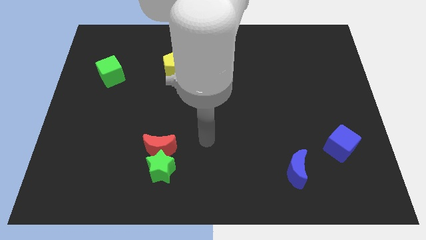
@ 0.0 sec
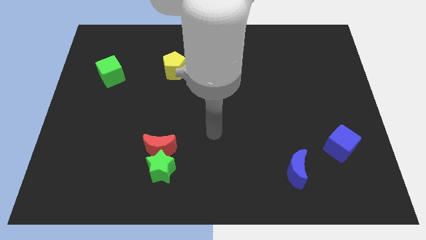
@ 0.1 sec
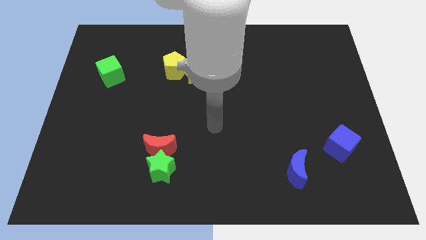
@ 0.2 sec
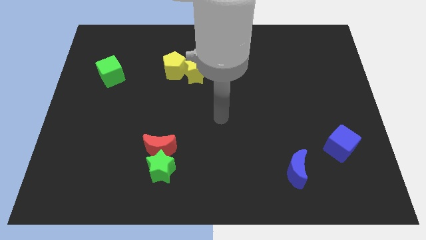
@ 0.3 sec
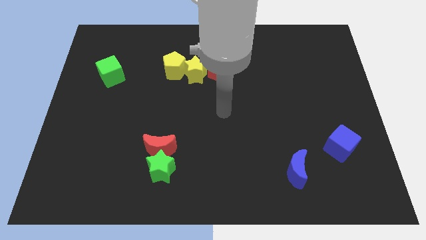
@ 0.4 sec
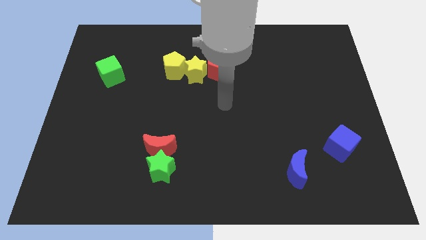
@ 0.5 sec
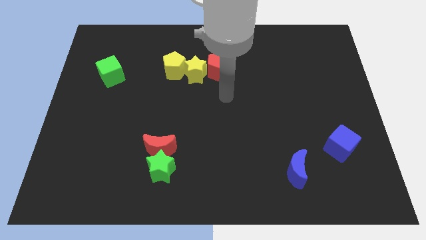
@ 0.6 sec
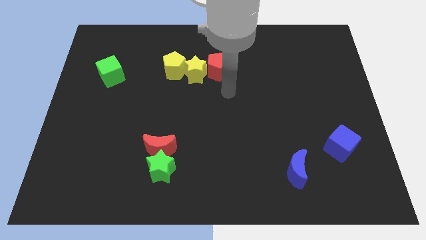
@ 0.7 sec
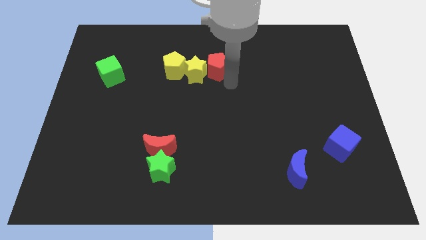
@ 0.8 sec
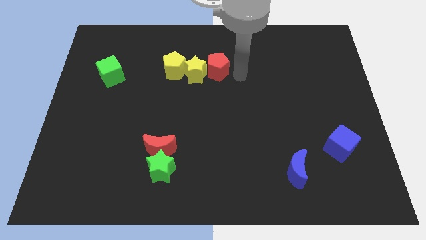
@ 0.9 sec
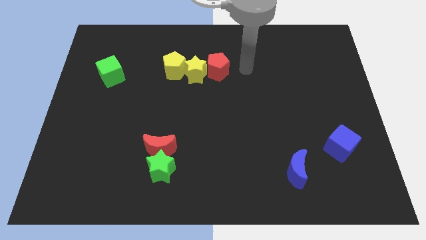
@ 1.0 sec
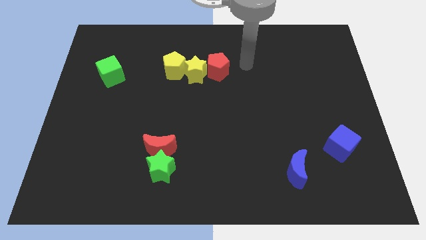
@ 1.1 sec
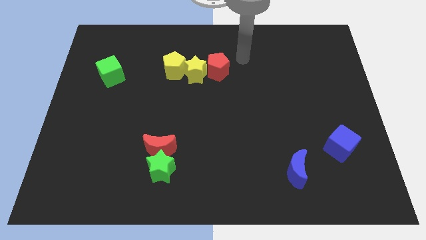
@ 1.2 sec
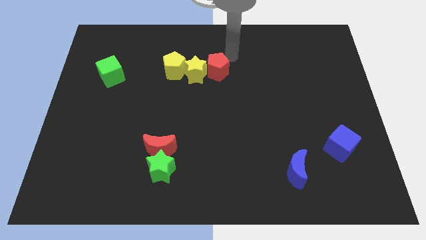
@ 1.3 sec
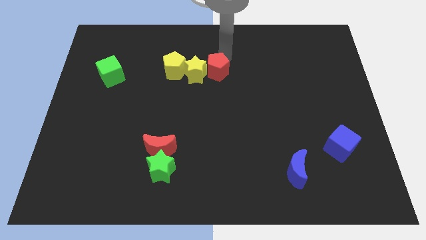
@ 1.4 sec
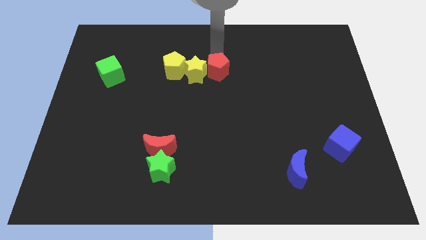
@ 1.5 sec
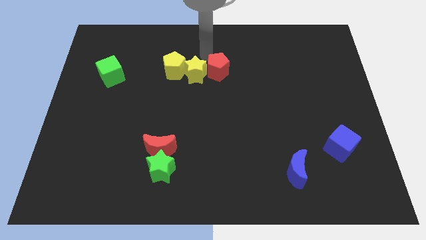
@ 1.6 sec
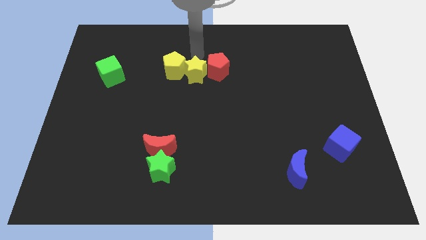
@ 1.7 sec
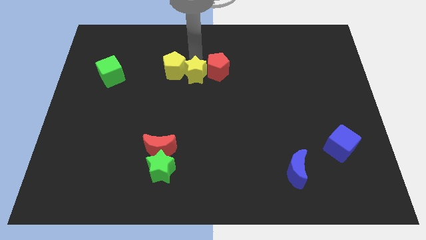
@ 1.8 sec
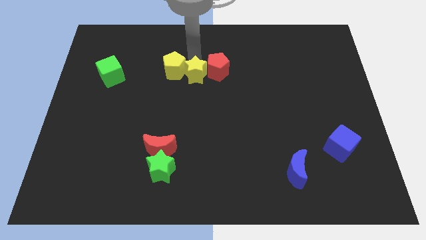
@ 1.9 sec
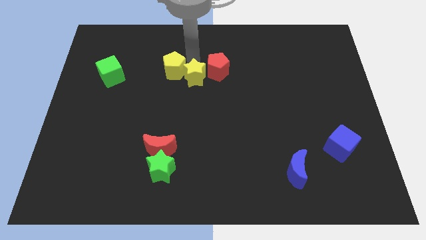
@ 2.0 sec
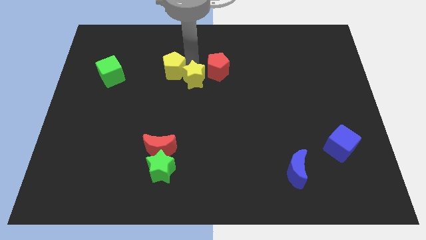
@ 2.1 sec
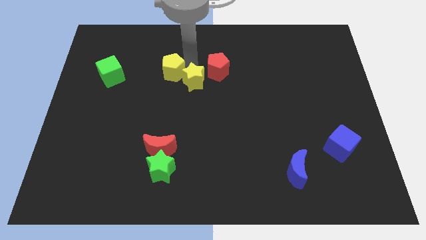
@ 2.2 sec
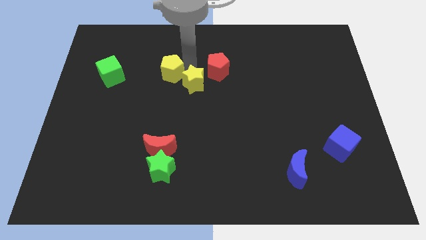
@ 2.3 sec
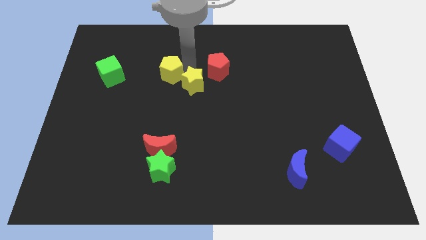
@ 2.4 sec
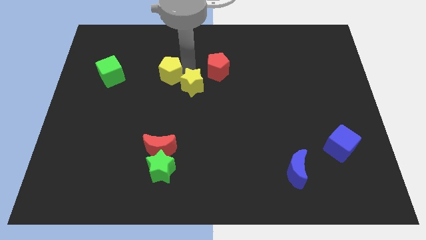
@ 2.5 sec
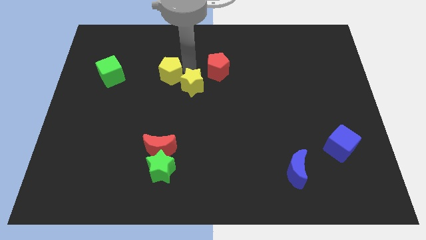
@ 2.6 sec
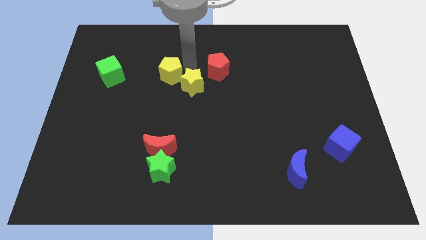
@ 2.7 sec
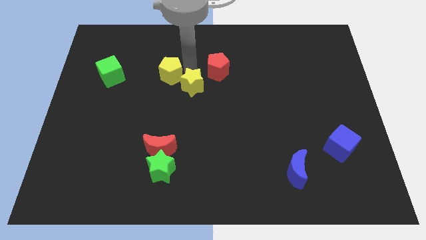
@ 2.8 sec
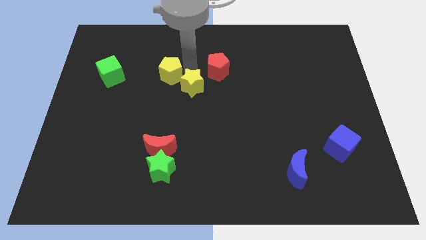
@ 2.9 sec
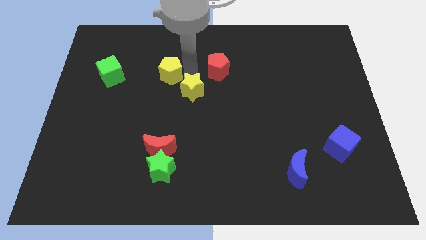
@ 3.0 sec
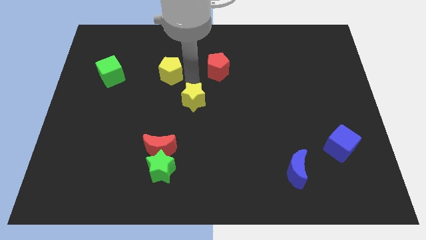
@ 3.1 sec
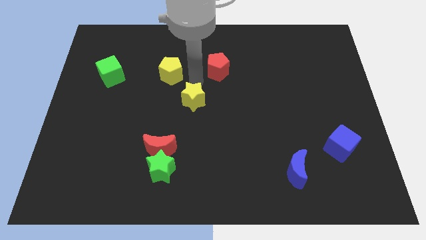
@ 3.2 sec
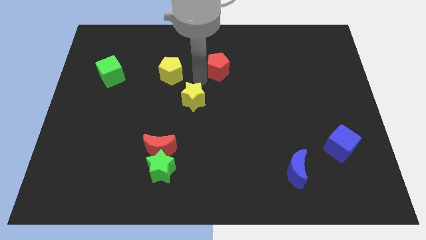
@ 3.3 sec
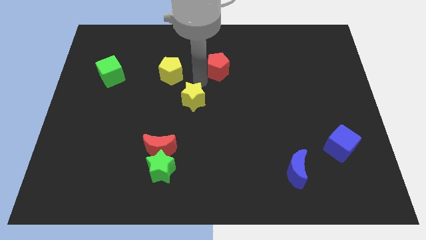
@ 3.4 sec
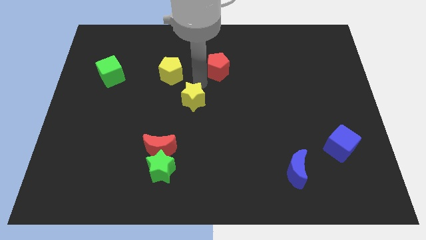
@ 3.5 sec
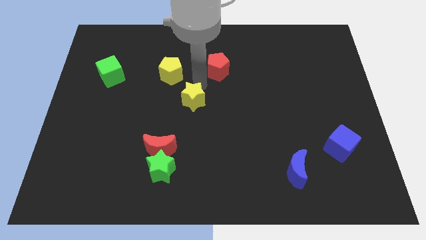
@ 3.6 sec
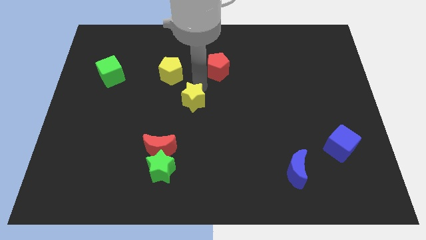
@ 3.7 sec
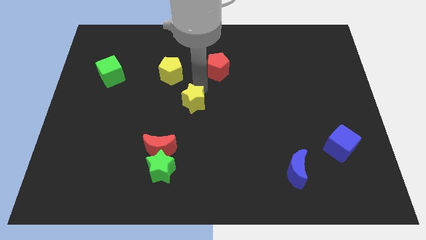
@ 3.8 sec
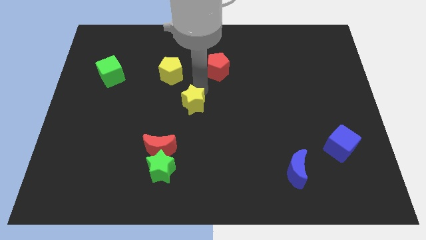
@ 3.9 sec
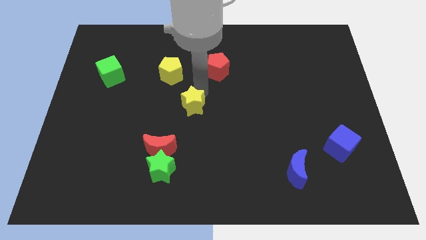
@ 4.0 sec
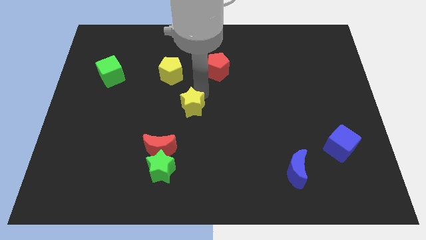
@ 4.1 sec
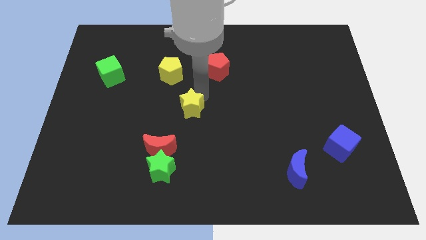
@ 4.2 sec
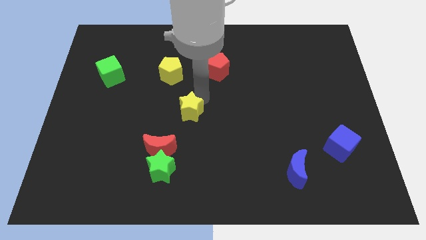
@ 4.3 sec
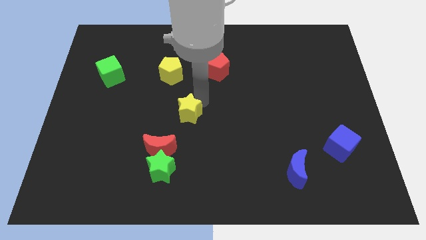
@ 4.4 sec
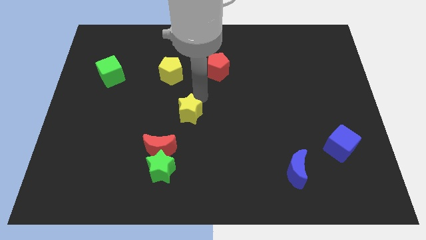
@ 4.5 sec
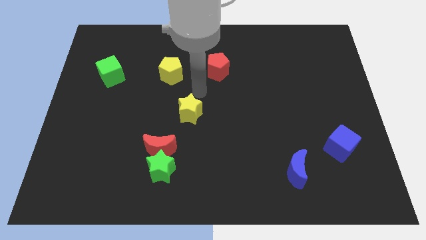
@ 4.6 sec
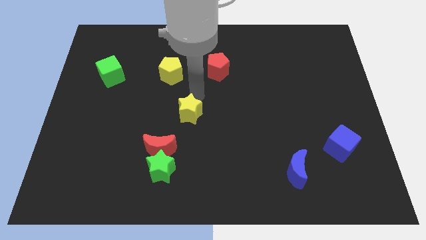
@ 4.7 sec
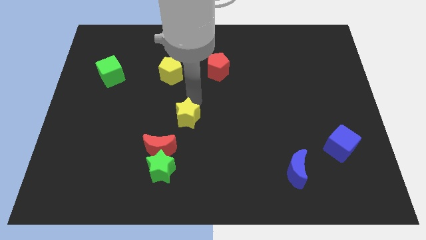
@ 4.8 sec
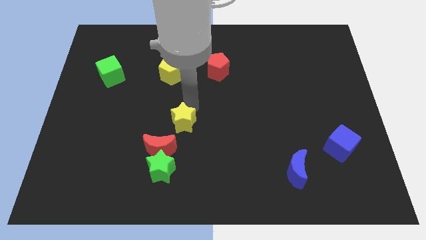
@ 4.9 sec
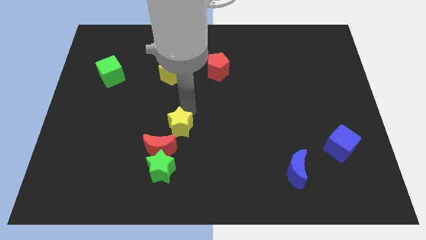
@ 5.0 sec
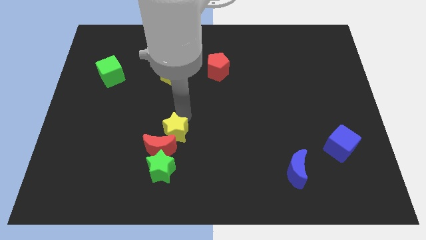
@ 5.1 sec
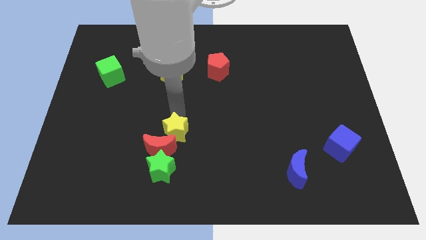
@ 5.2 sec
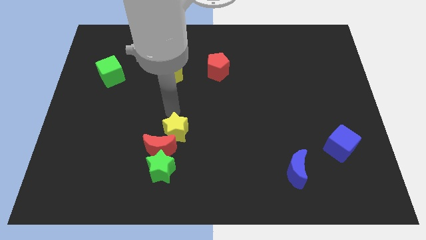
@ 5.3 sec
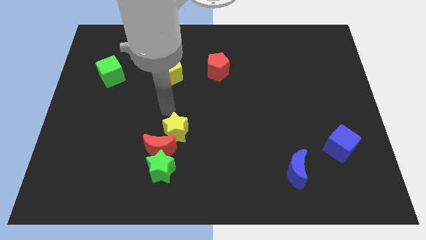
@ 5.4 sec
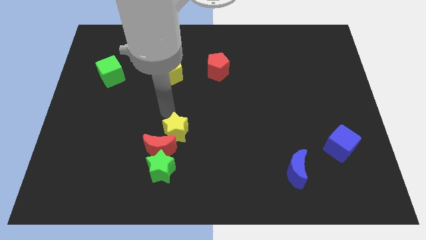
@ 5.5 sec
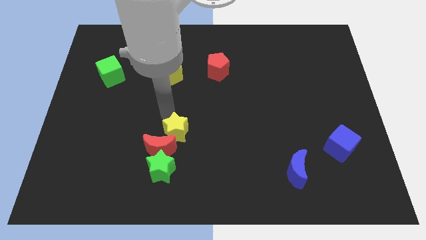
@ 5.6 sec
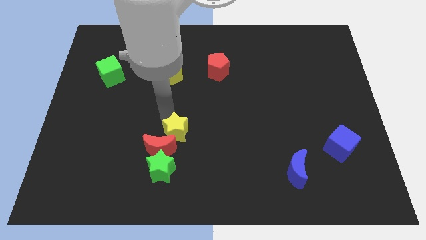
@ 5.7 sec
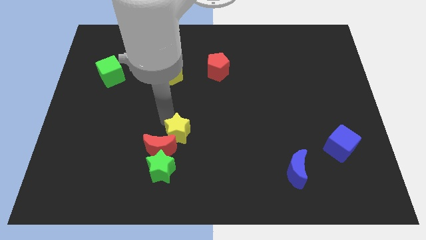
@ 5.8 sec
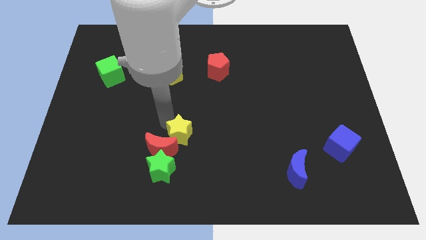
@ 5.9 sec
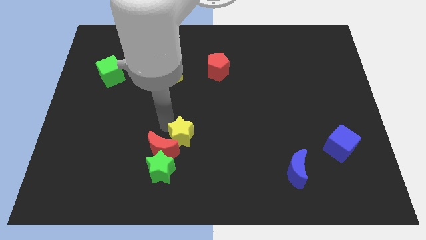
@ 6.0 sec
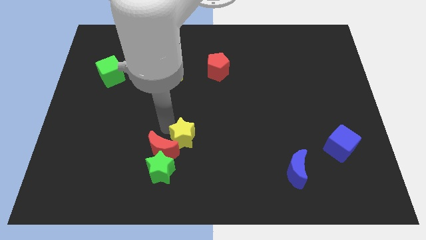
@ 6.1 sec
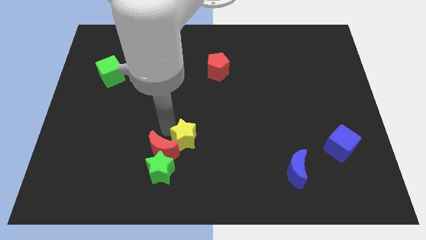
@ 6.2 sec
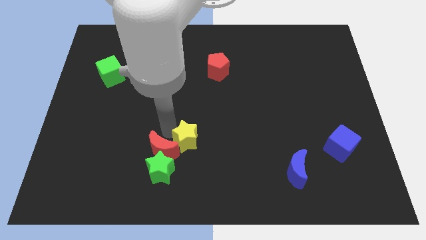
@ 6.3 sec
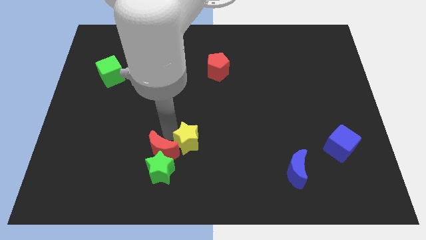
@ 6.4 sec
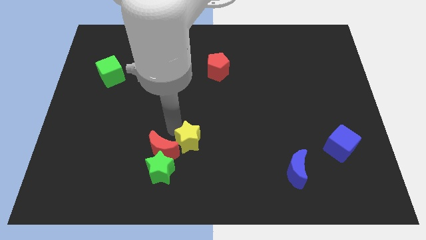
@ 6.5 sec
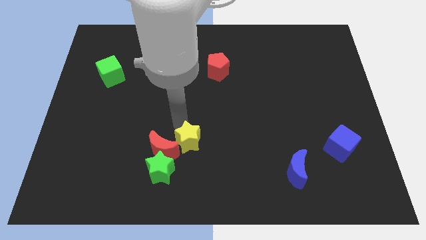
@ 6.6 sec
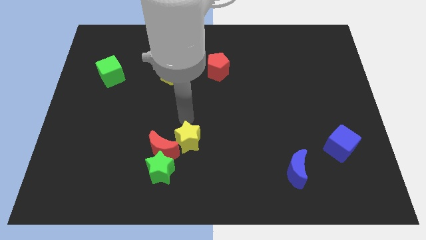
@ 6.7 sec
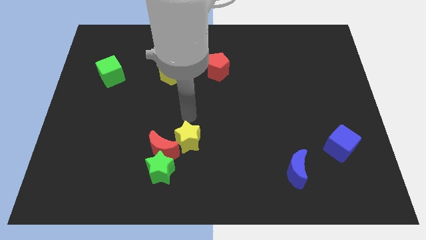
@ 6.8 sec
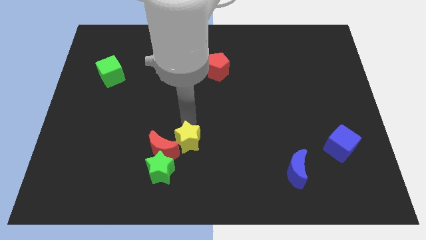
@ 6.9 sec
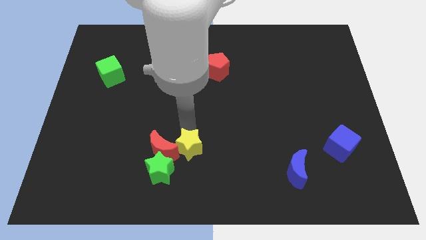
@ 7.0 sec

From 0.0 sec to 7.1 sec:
put the yellow star diagonally down and to the right of the red moon

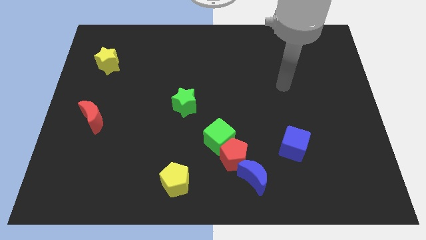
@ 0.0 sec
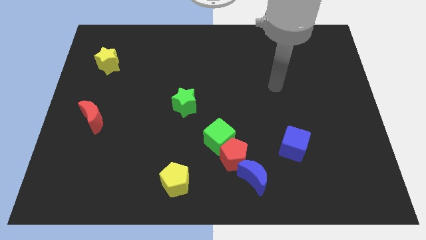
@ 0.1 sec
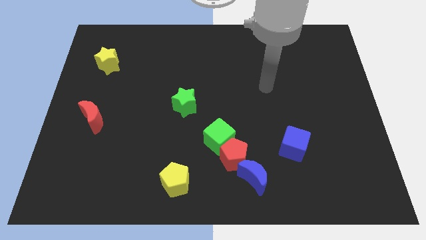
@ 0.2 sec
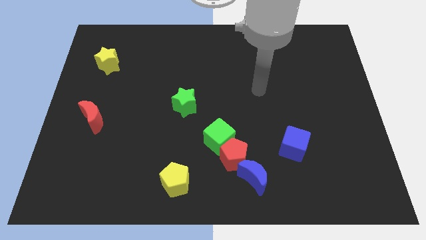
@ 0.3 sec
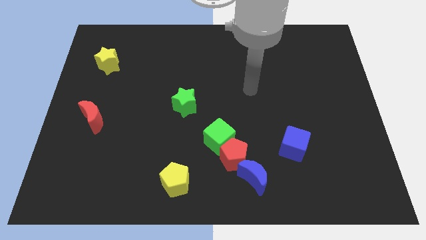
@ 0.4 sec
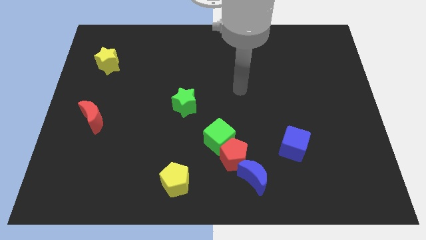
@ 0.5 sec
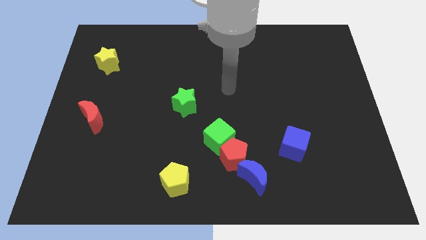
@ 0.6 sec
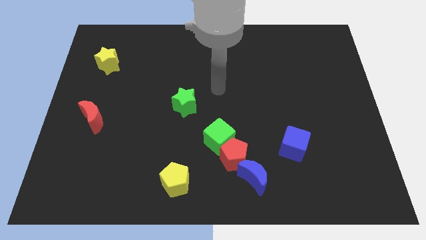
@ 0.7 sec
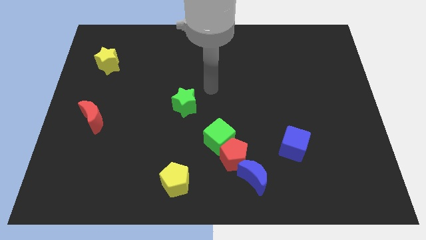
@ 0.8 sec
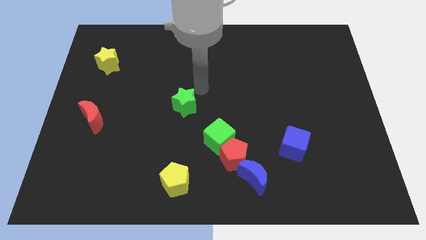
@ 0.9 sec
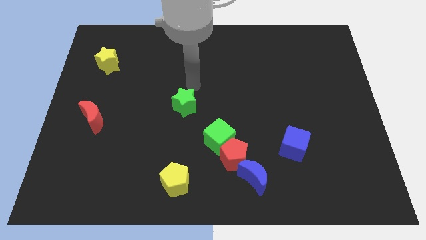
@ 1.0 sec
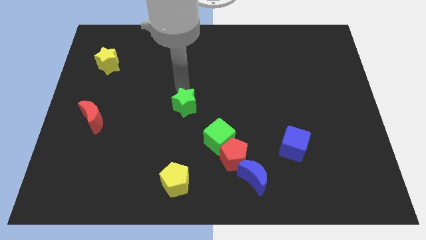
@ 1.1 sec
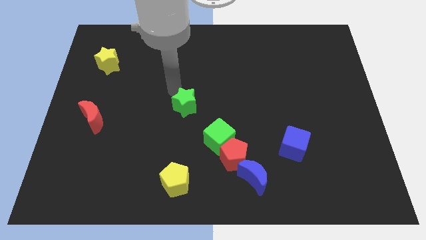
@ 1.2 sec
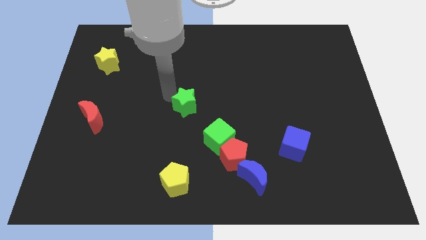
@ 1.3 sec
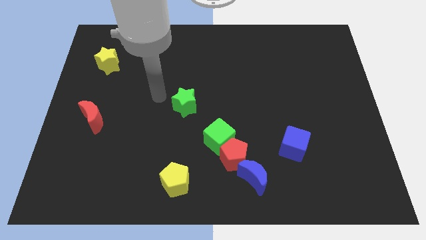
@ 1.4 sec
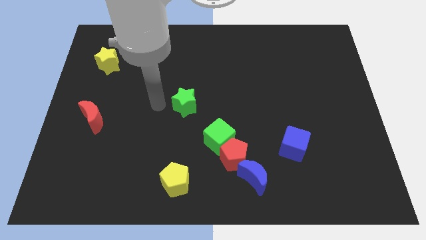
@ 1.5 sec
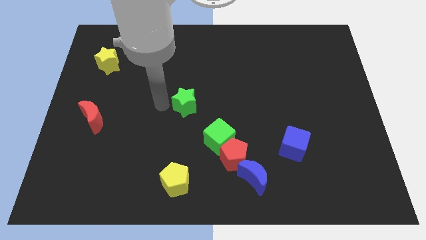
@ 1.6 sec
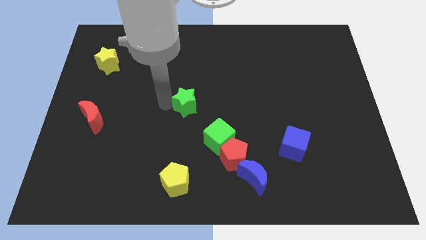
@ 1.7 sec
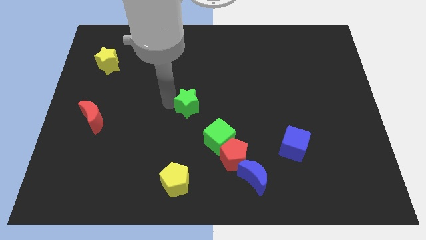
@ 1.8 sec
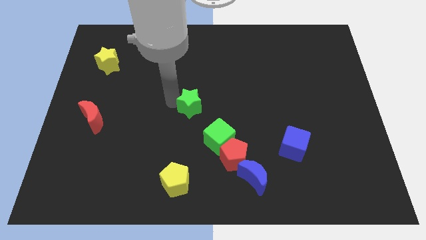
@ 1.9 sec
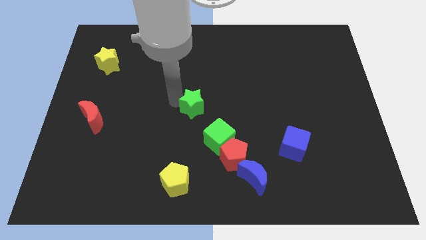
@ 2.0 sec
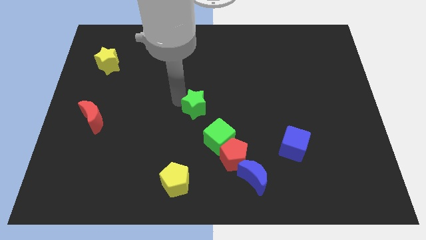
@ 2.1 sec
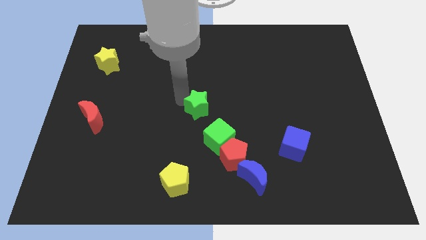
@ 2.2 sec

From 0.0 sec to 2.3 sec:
put the green star above the green cube
